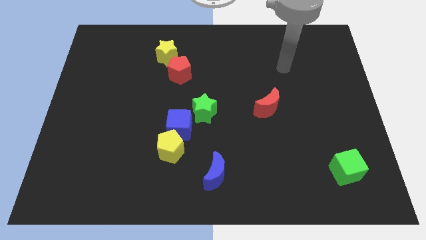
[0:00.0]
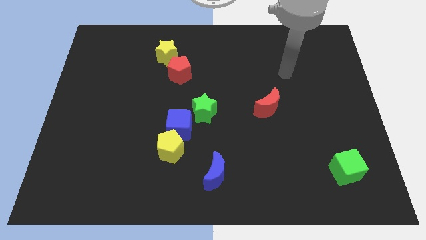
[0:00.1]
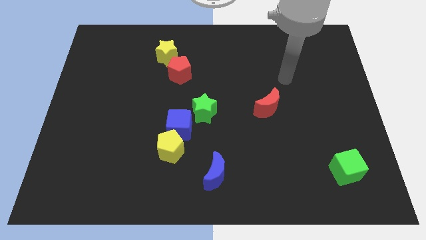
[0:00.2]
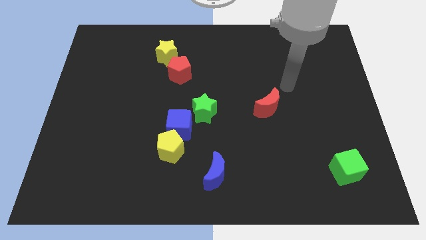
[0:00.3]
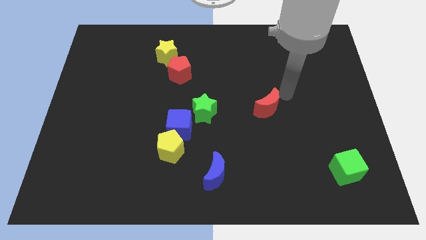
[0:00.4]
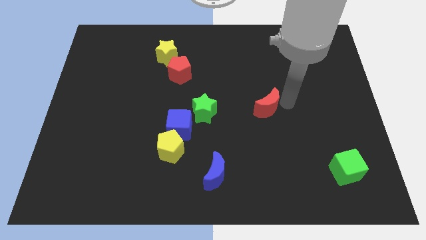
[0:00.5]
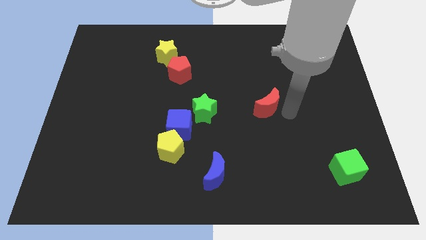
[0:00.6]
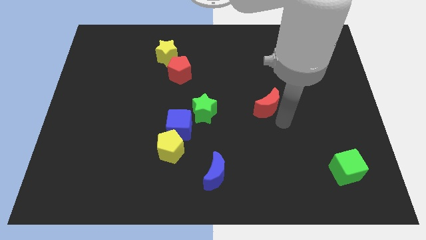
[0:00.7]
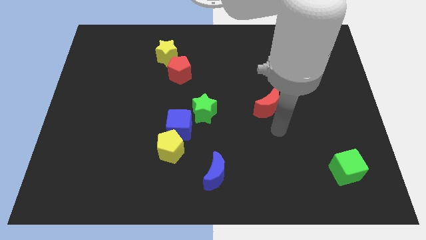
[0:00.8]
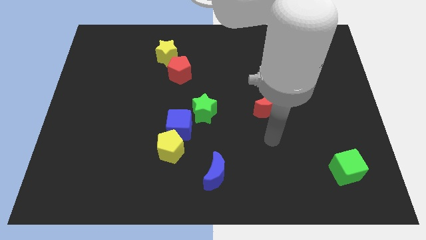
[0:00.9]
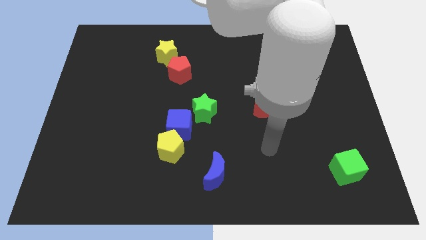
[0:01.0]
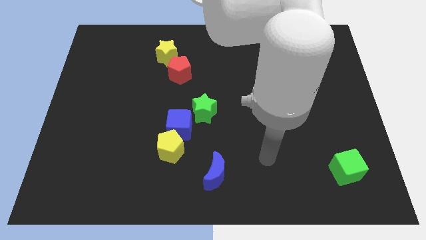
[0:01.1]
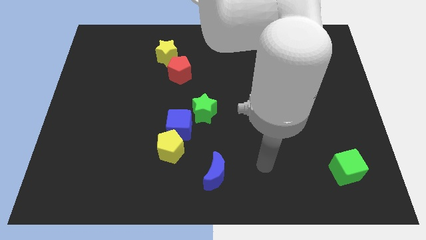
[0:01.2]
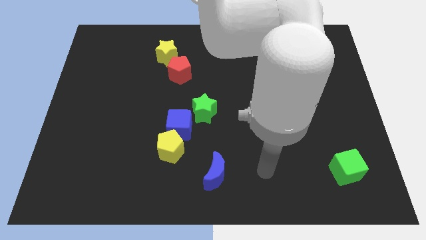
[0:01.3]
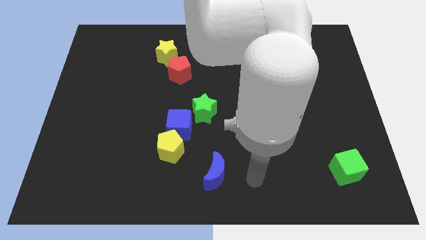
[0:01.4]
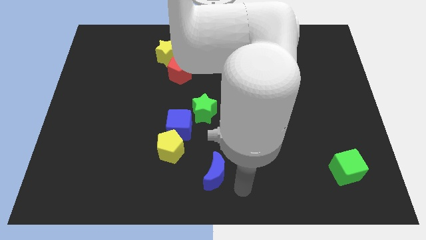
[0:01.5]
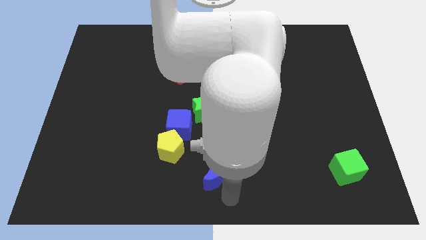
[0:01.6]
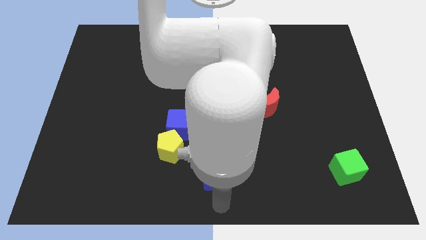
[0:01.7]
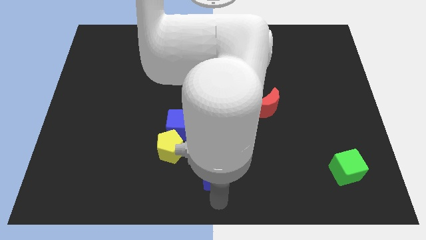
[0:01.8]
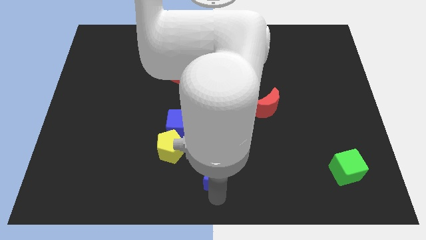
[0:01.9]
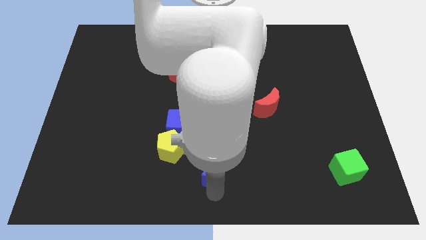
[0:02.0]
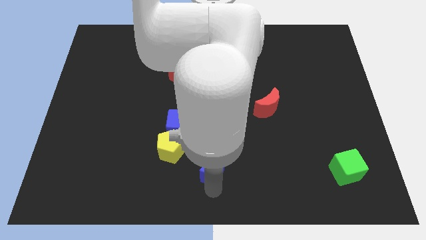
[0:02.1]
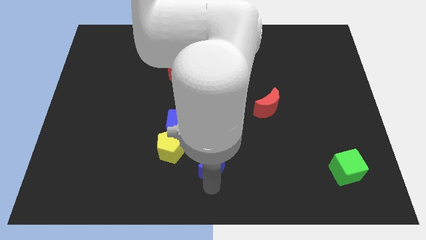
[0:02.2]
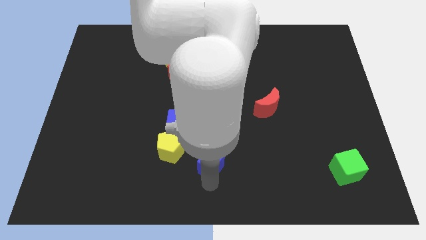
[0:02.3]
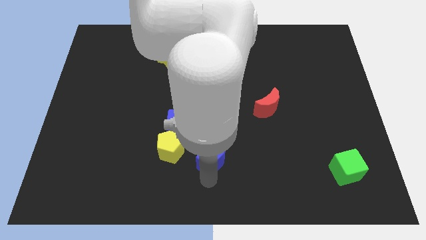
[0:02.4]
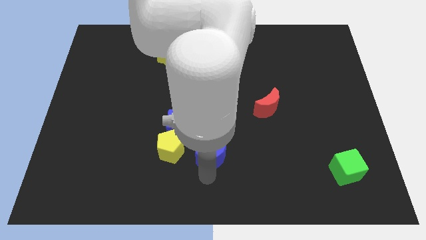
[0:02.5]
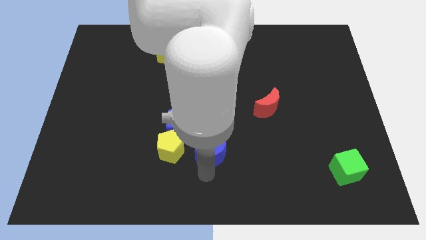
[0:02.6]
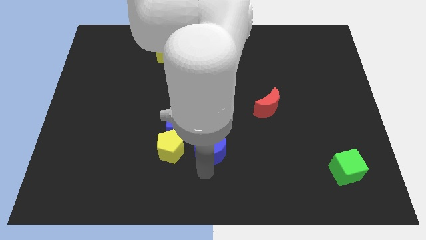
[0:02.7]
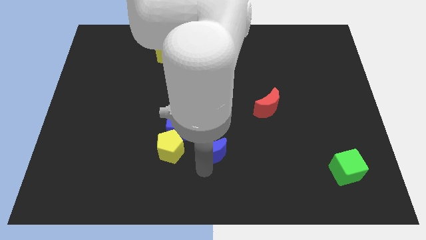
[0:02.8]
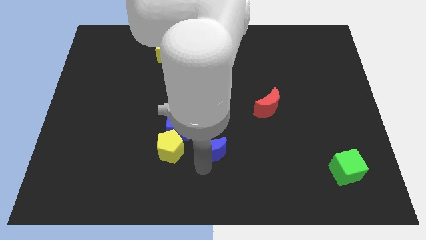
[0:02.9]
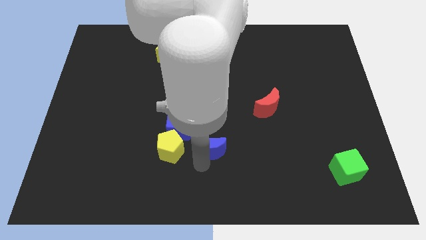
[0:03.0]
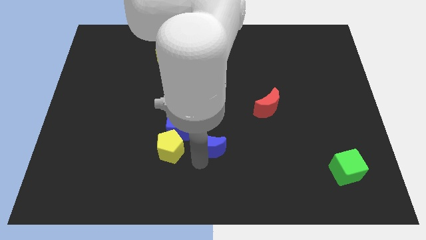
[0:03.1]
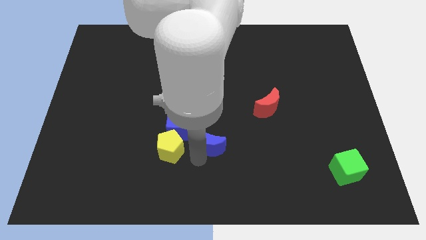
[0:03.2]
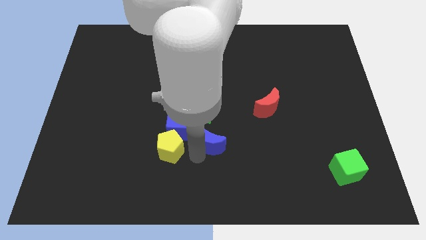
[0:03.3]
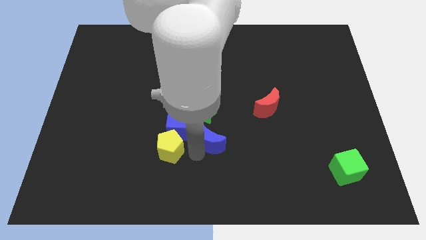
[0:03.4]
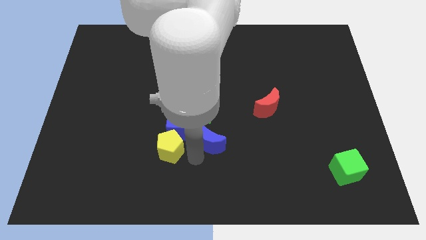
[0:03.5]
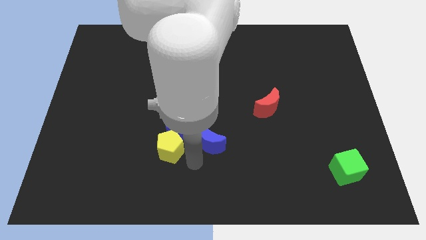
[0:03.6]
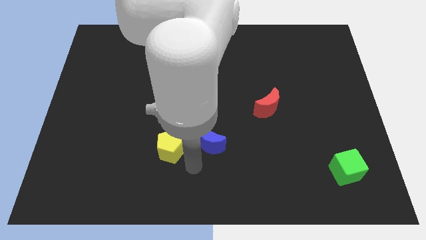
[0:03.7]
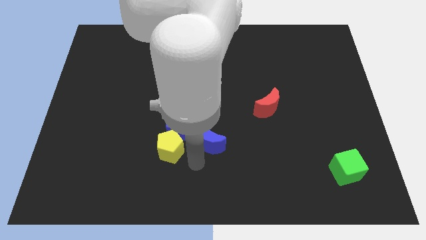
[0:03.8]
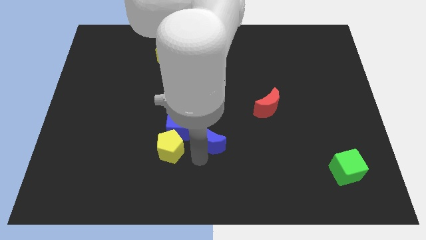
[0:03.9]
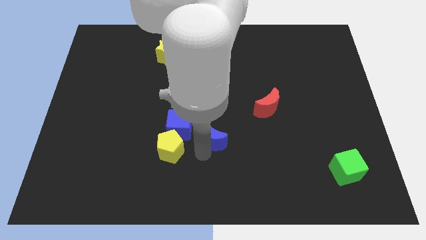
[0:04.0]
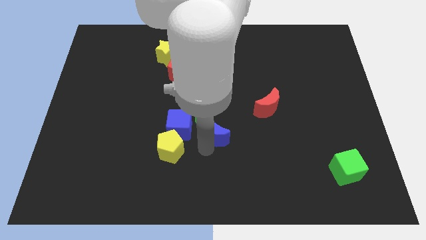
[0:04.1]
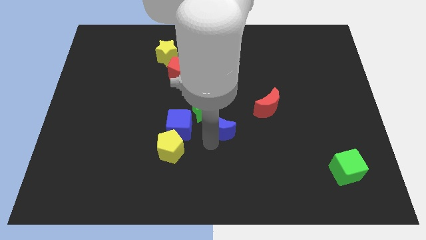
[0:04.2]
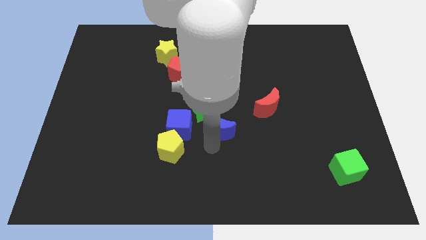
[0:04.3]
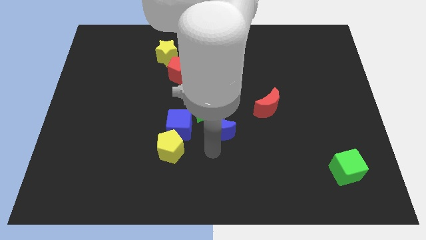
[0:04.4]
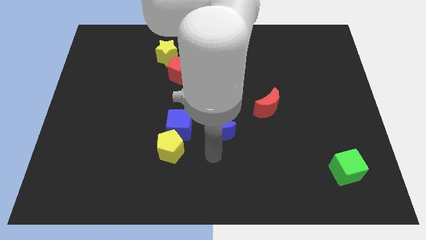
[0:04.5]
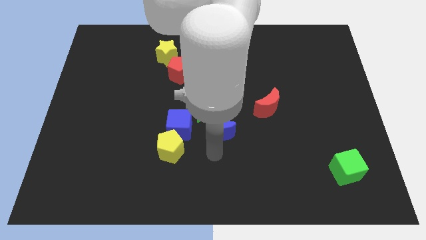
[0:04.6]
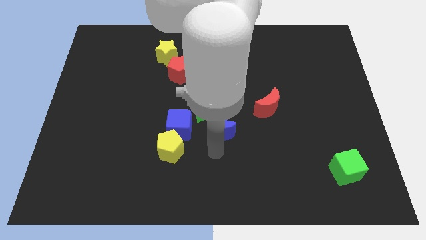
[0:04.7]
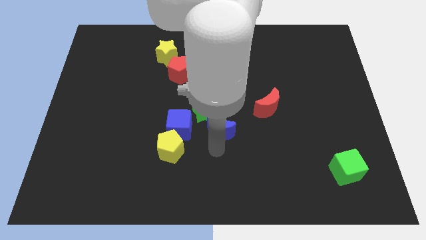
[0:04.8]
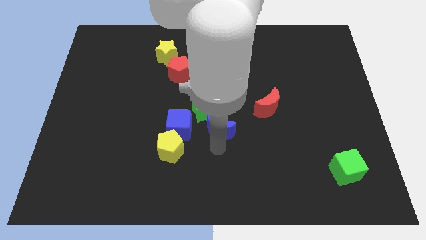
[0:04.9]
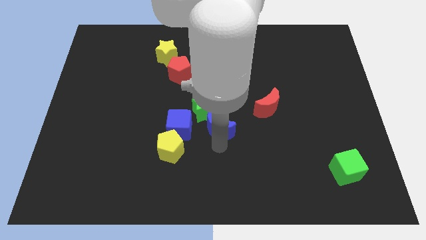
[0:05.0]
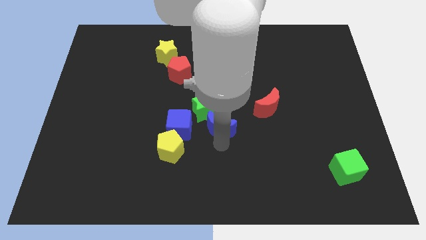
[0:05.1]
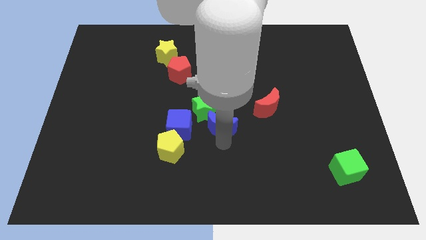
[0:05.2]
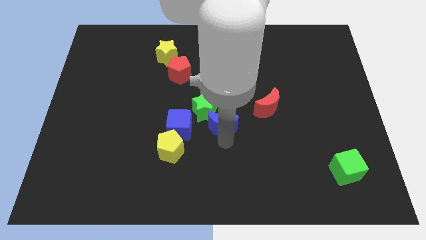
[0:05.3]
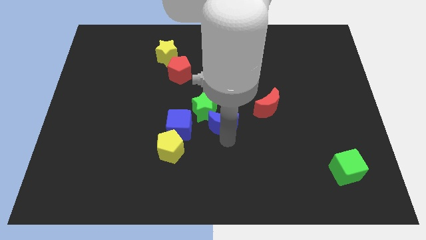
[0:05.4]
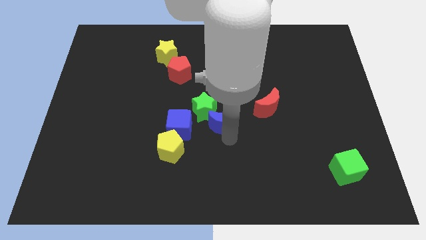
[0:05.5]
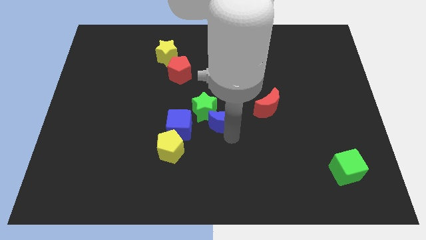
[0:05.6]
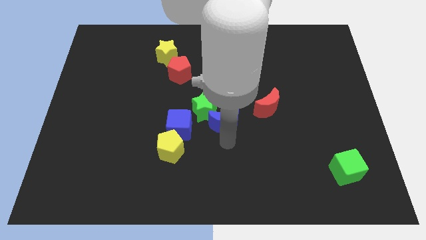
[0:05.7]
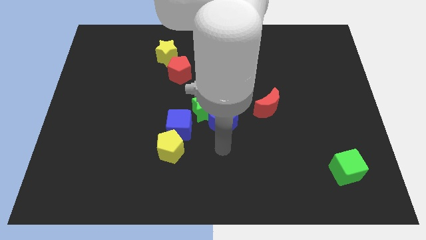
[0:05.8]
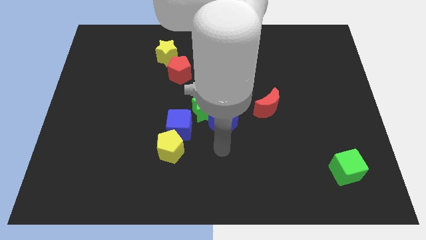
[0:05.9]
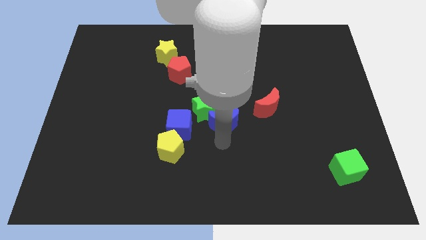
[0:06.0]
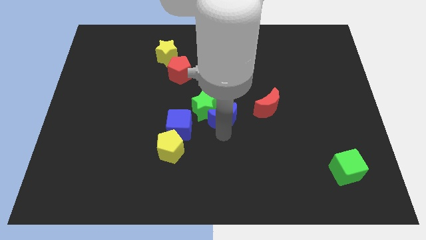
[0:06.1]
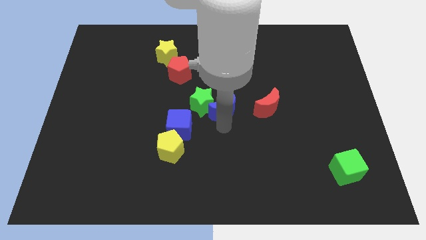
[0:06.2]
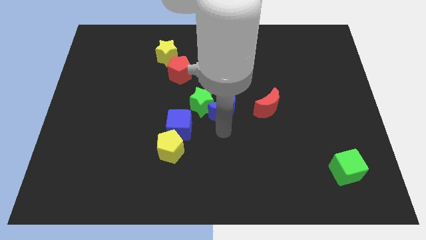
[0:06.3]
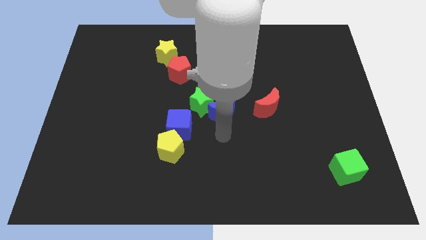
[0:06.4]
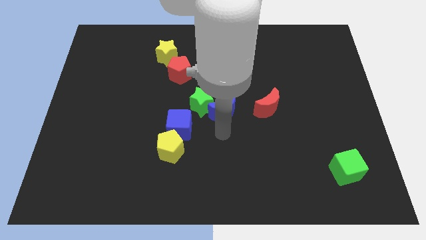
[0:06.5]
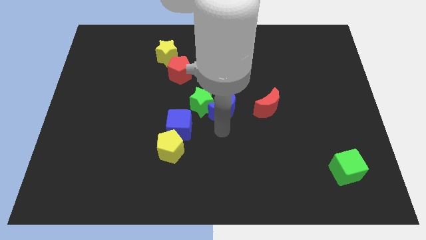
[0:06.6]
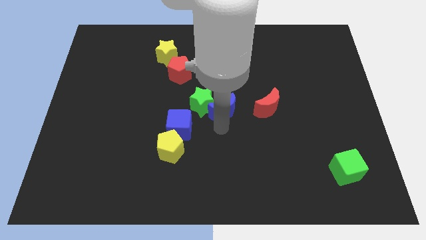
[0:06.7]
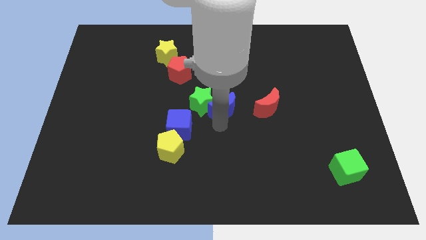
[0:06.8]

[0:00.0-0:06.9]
put the blue moon to the top right of the green star
